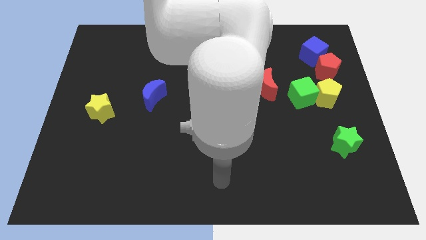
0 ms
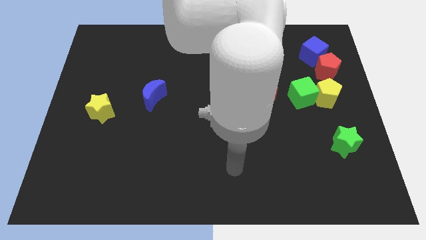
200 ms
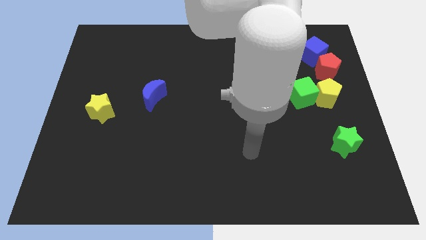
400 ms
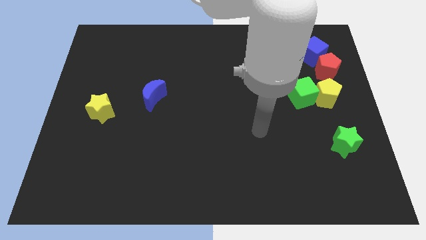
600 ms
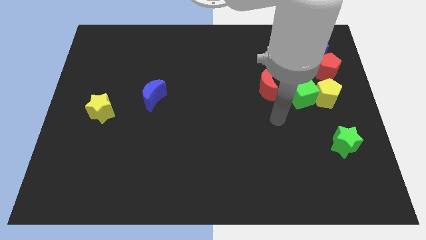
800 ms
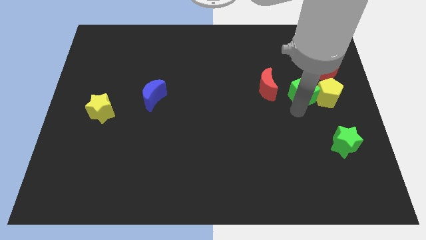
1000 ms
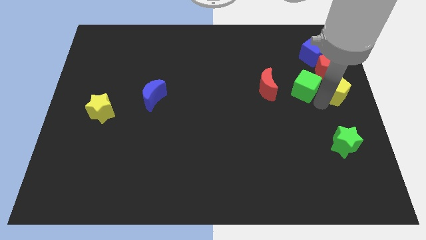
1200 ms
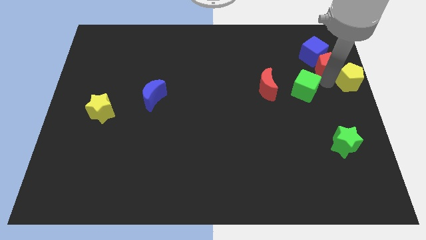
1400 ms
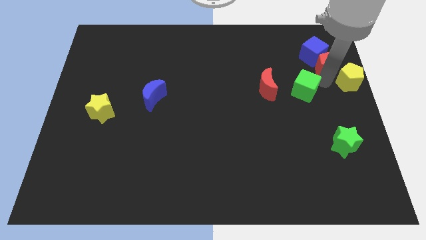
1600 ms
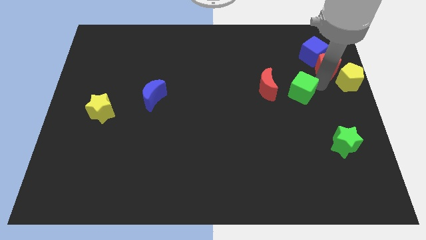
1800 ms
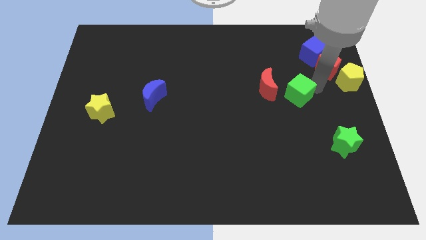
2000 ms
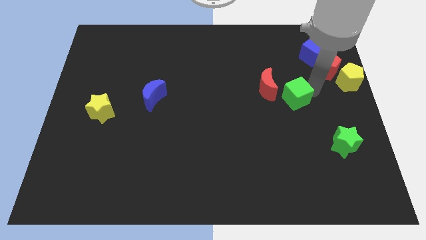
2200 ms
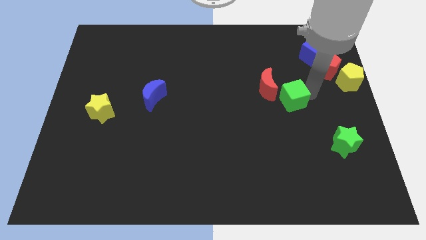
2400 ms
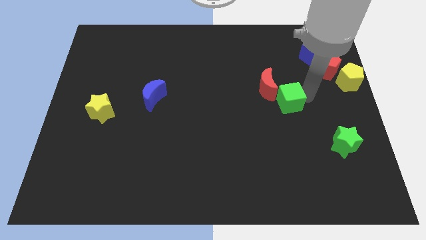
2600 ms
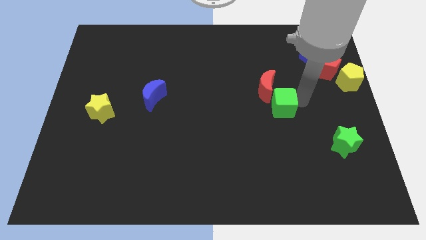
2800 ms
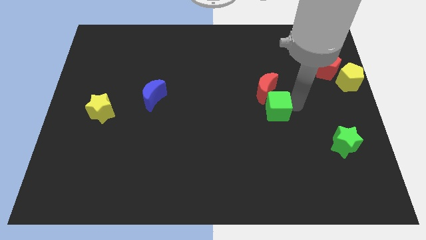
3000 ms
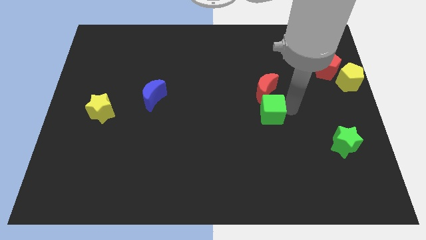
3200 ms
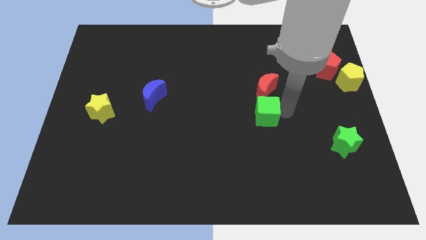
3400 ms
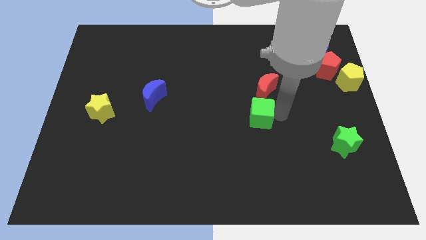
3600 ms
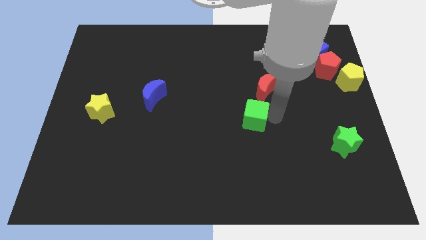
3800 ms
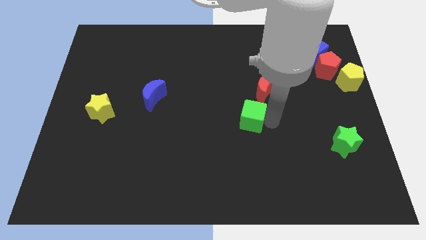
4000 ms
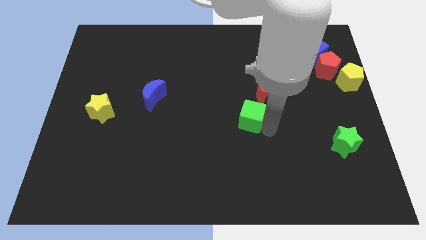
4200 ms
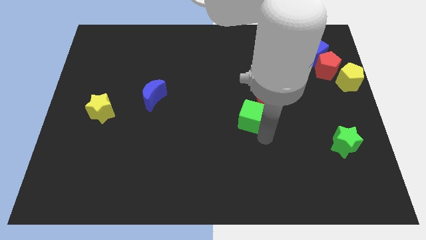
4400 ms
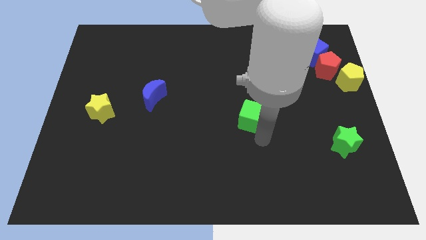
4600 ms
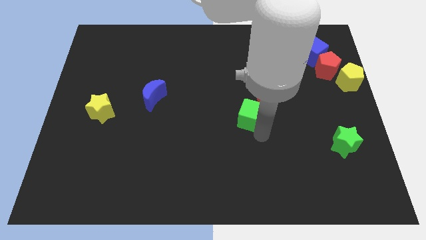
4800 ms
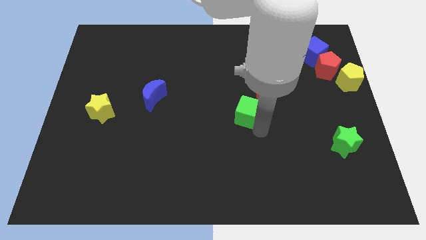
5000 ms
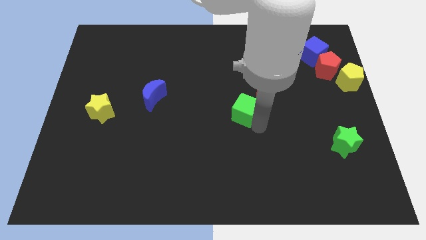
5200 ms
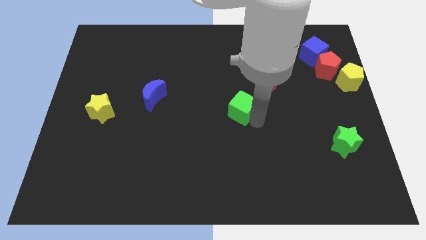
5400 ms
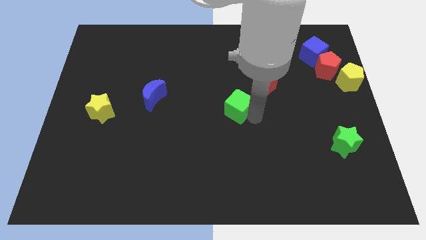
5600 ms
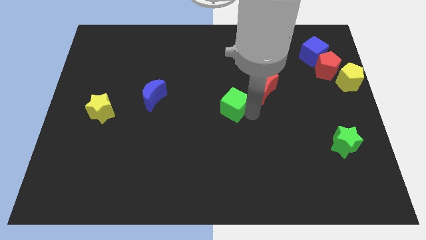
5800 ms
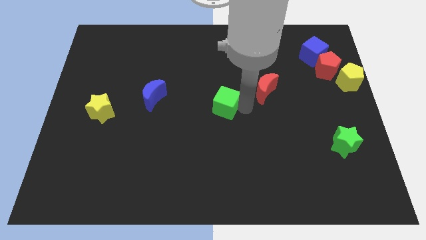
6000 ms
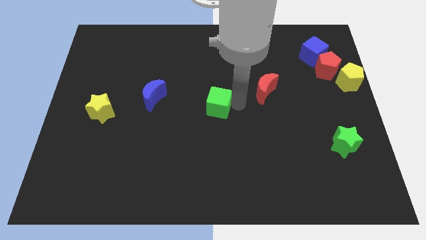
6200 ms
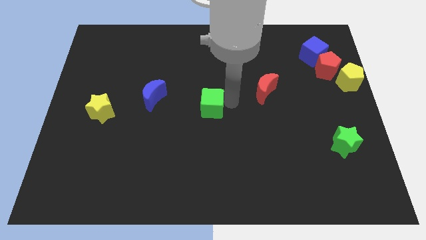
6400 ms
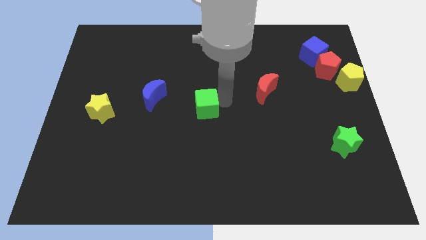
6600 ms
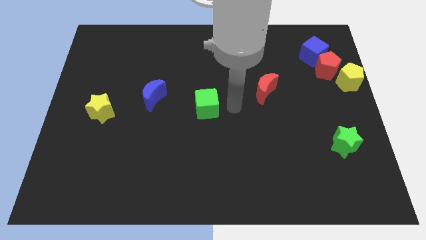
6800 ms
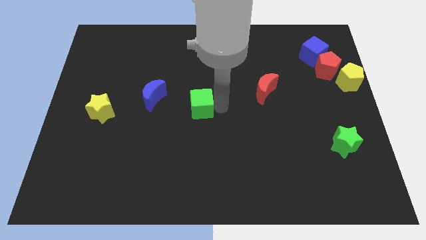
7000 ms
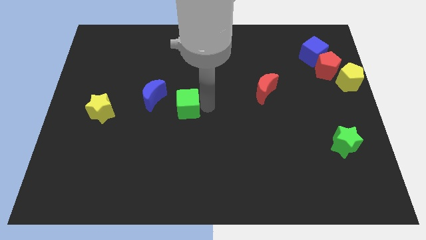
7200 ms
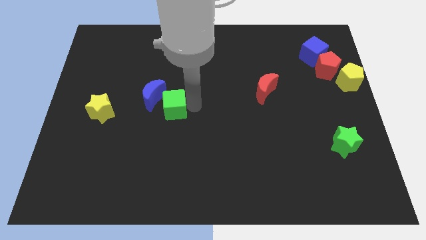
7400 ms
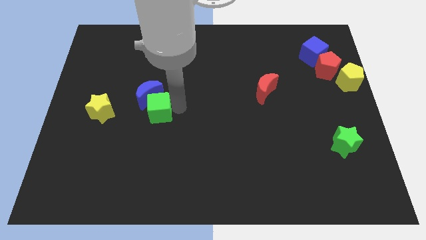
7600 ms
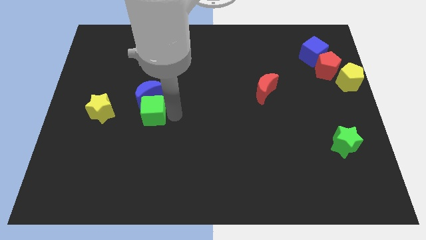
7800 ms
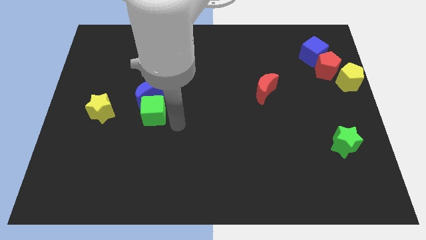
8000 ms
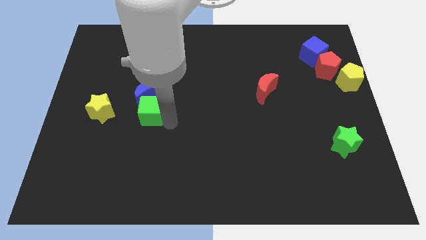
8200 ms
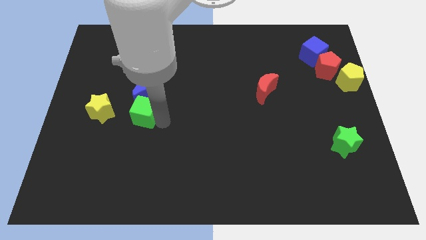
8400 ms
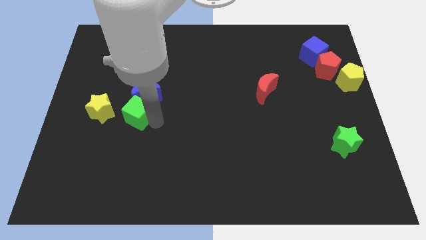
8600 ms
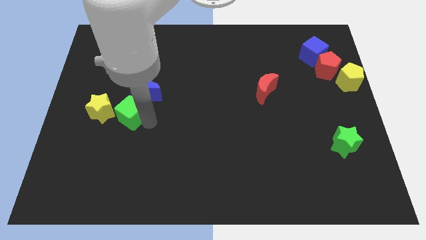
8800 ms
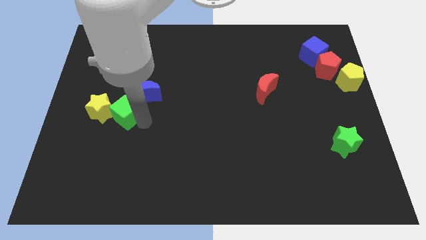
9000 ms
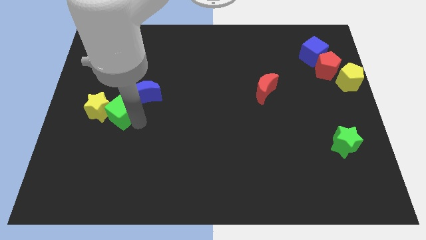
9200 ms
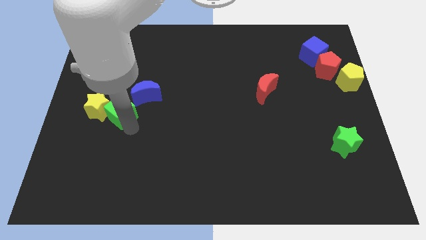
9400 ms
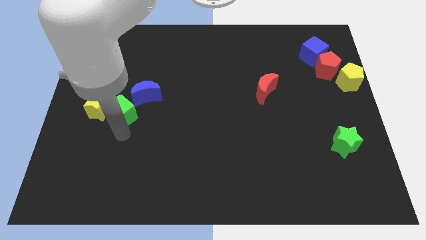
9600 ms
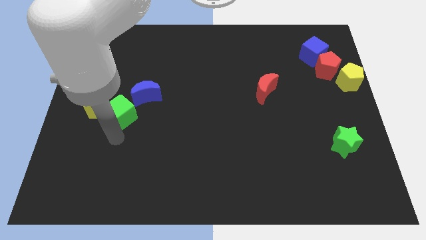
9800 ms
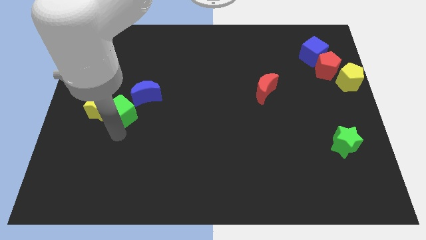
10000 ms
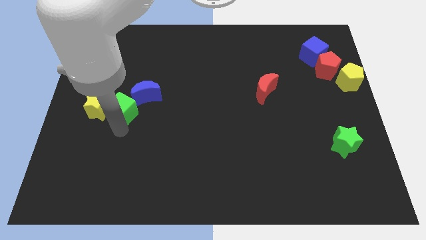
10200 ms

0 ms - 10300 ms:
slide the green cube left of the blue moon

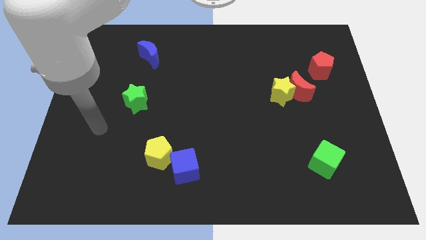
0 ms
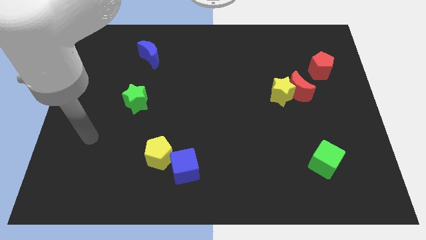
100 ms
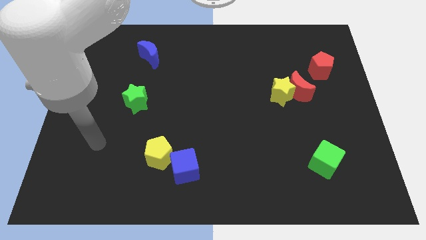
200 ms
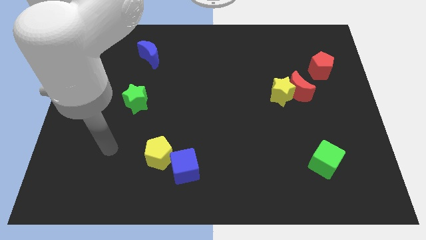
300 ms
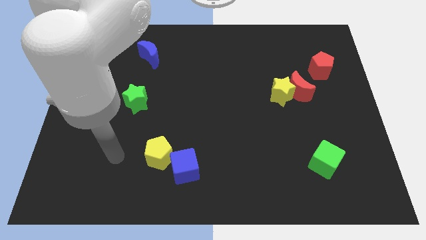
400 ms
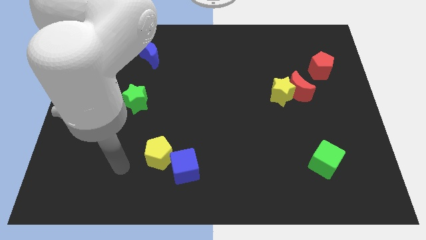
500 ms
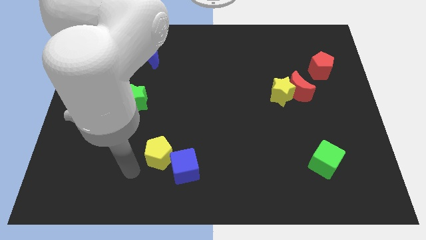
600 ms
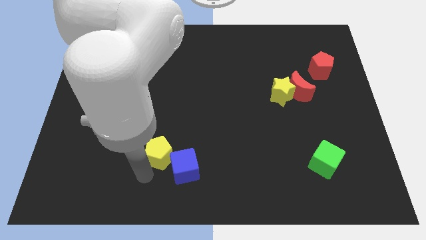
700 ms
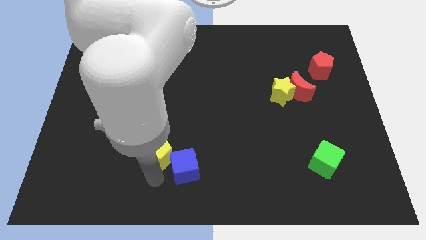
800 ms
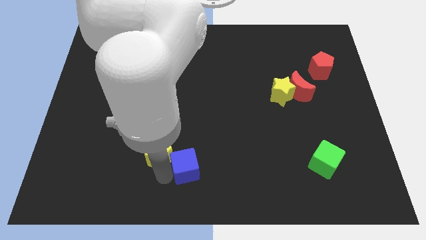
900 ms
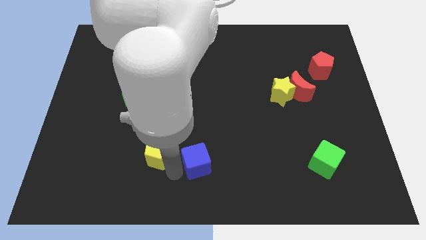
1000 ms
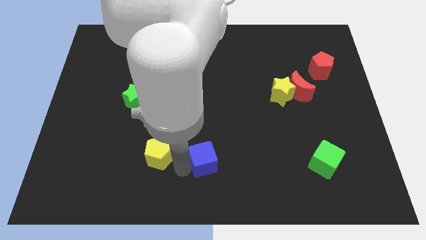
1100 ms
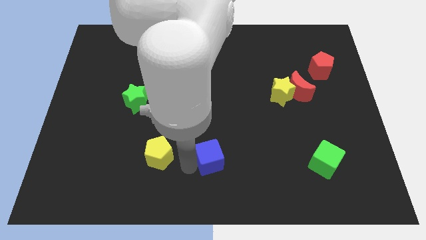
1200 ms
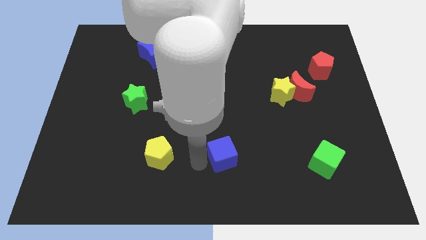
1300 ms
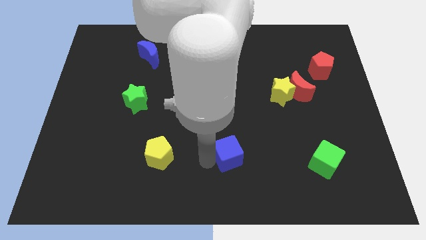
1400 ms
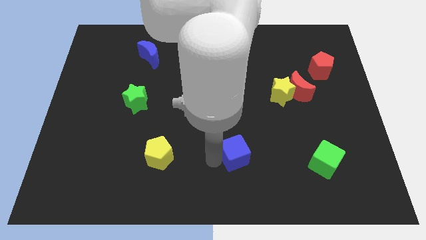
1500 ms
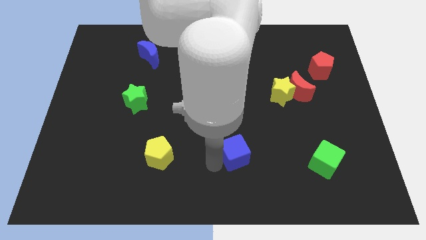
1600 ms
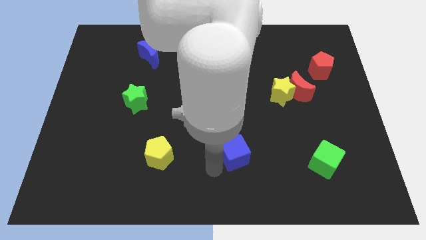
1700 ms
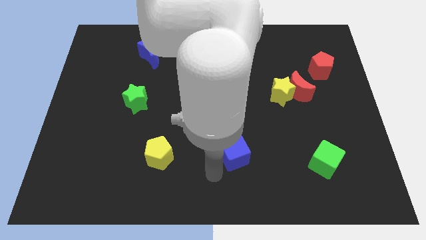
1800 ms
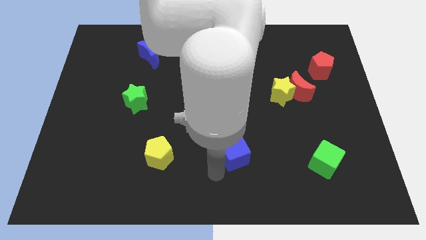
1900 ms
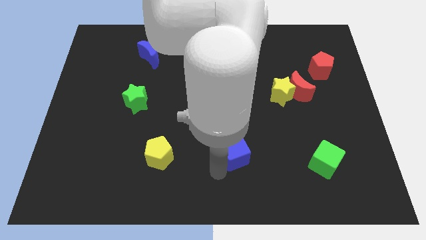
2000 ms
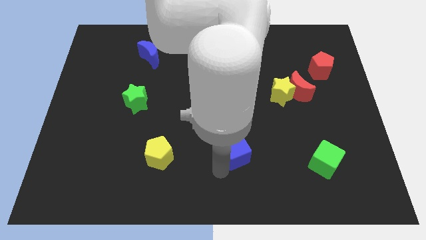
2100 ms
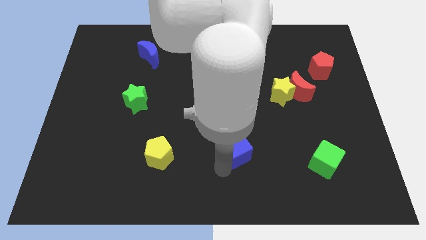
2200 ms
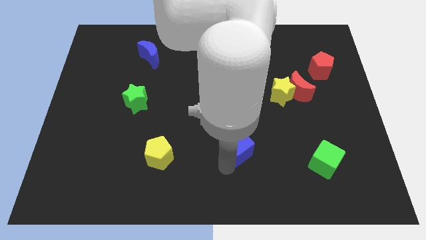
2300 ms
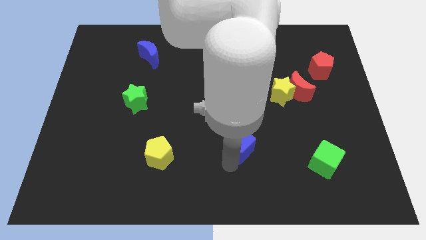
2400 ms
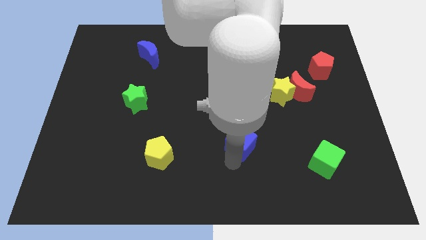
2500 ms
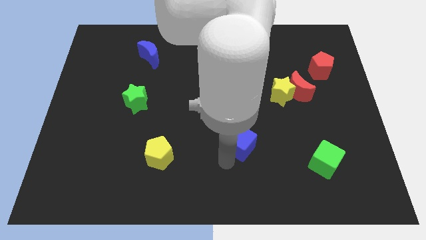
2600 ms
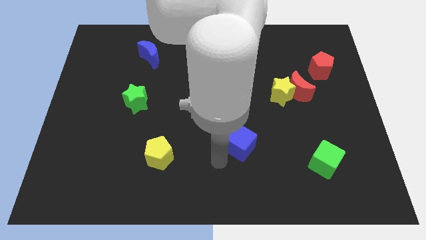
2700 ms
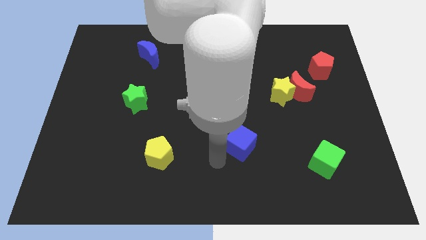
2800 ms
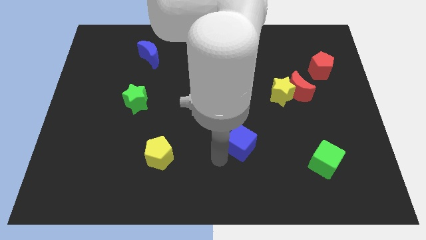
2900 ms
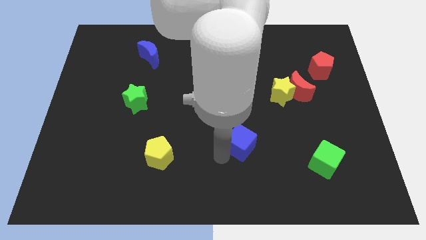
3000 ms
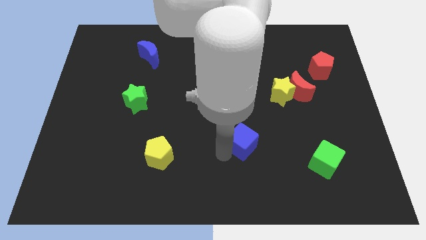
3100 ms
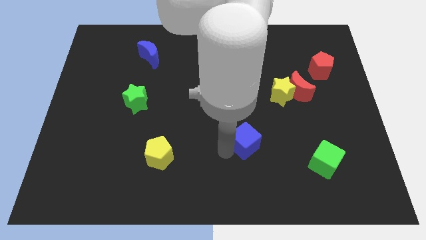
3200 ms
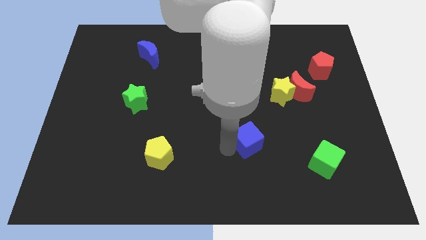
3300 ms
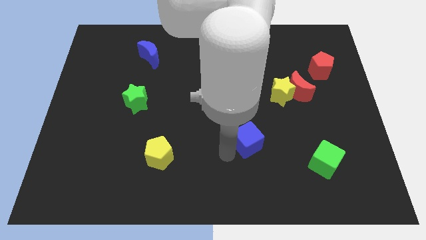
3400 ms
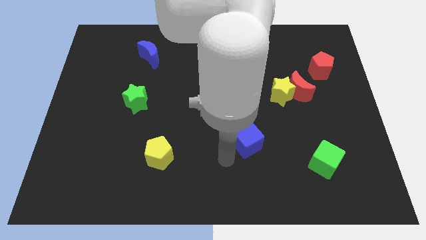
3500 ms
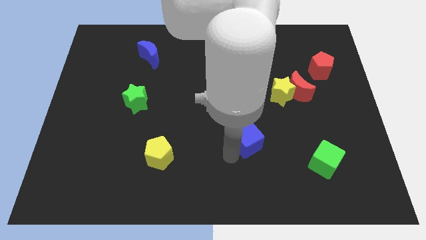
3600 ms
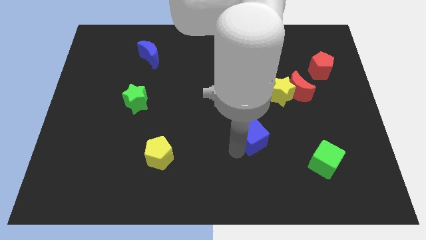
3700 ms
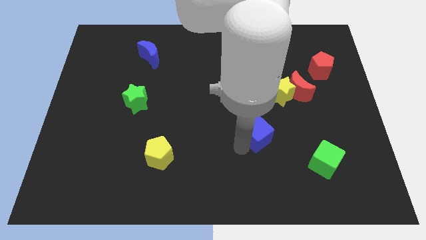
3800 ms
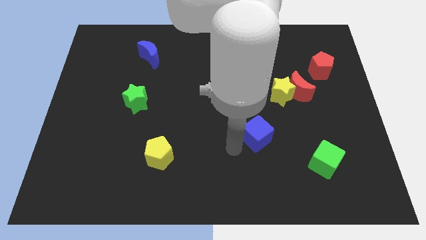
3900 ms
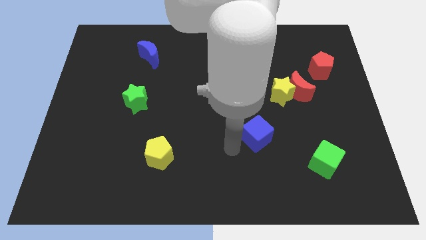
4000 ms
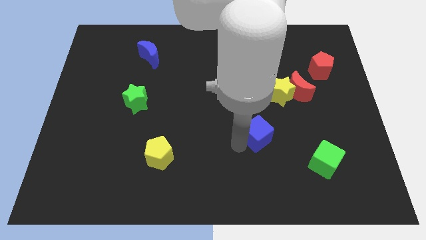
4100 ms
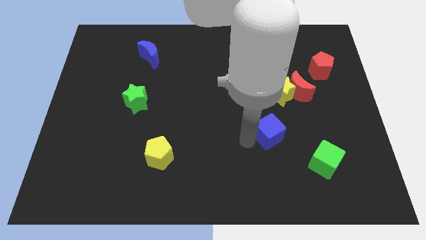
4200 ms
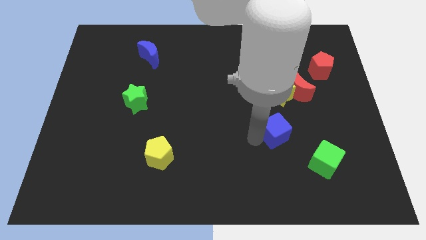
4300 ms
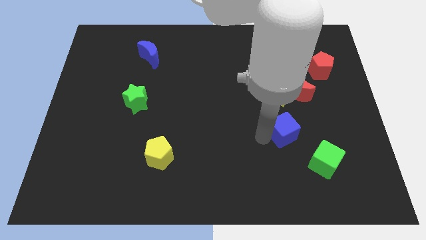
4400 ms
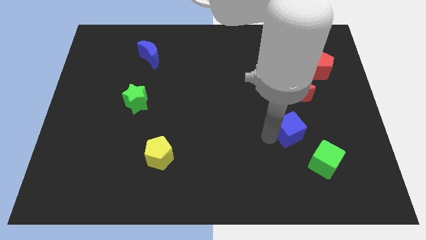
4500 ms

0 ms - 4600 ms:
push the blue cube to the bottom of the red moon
